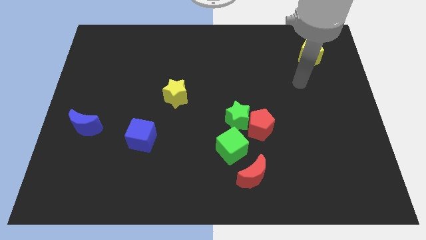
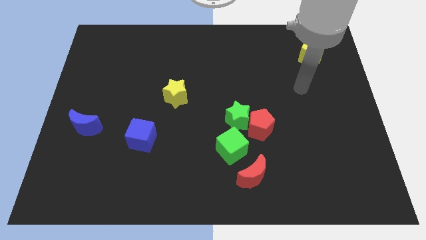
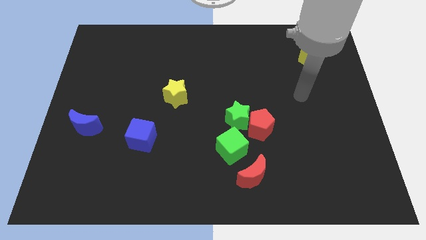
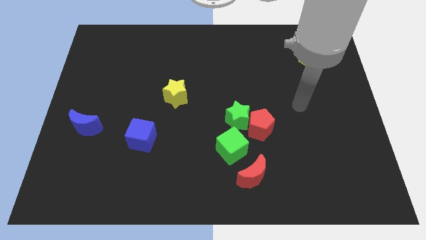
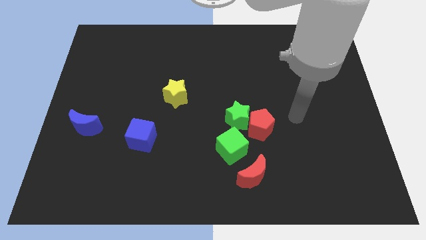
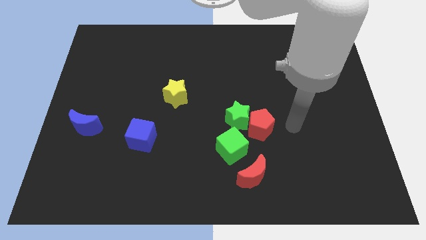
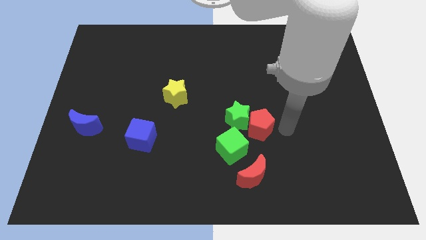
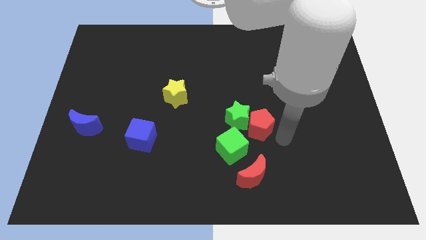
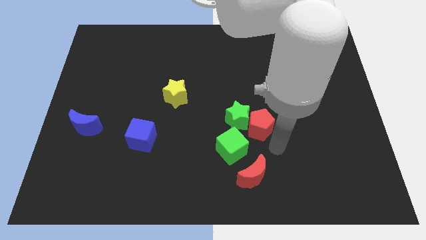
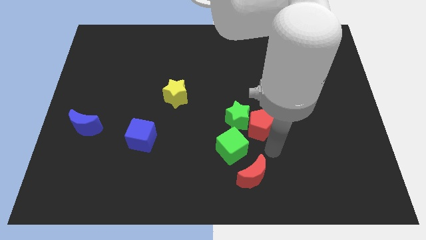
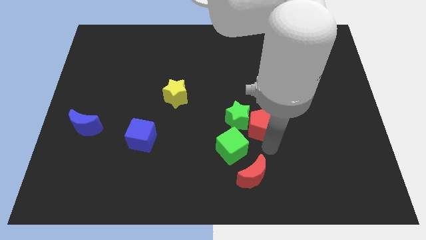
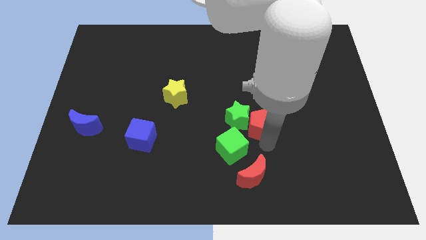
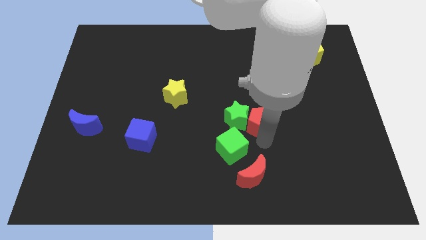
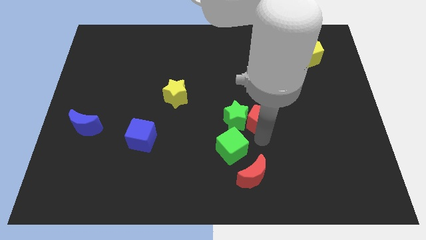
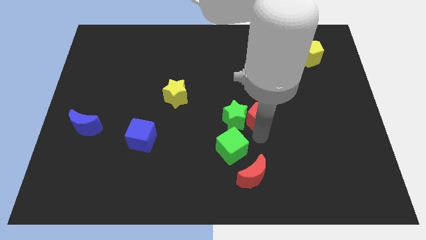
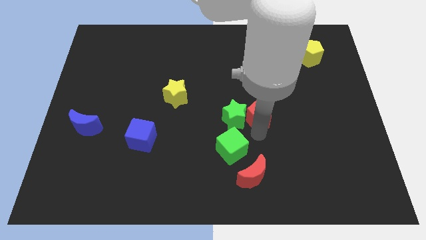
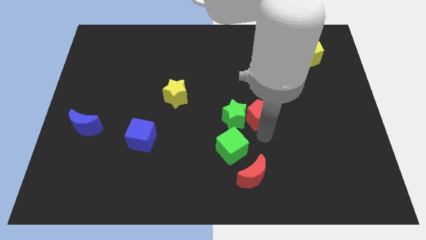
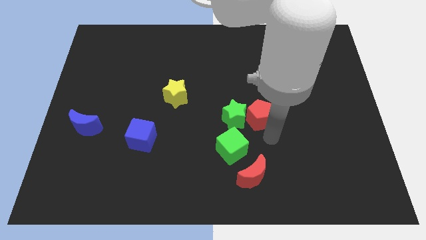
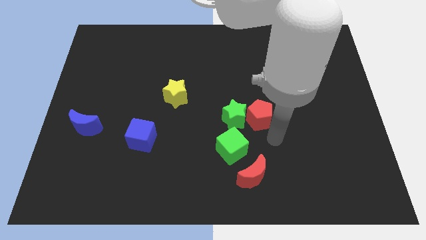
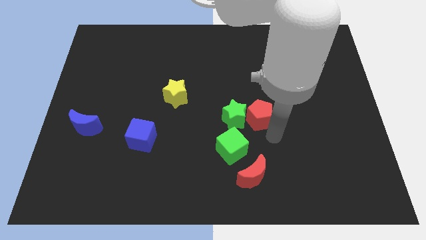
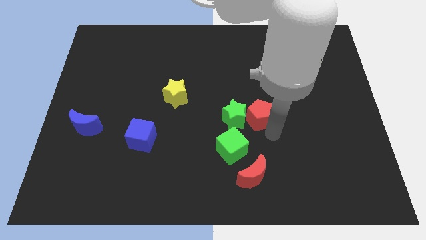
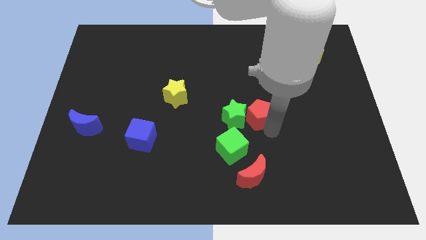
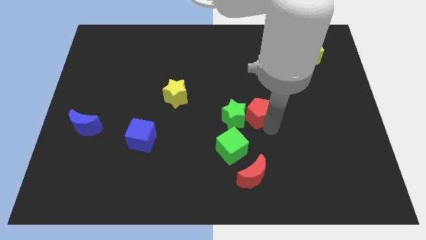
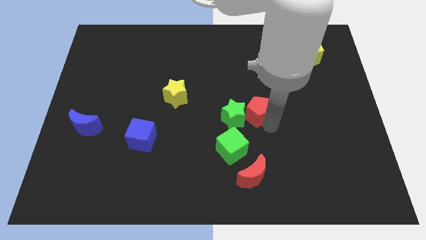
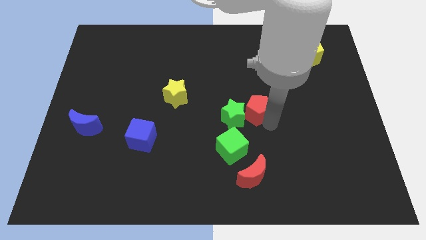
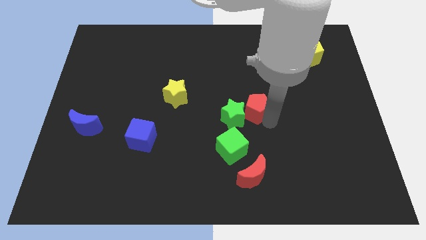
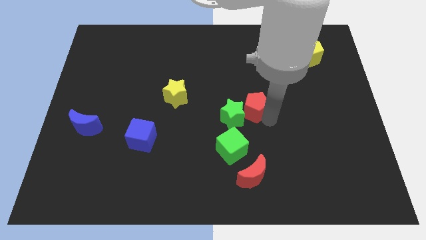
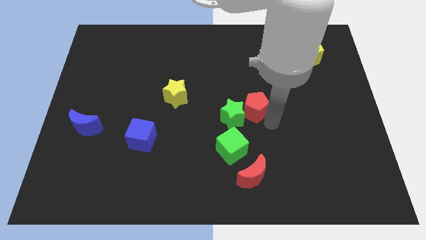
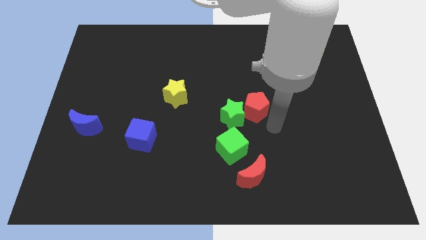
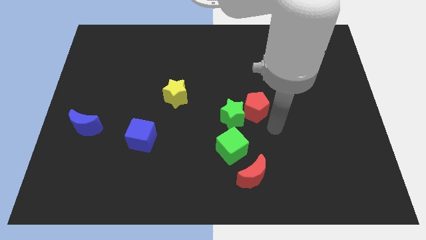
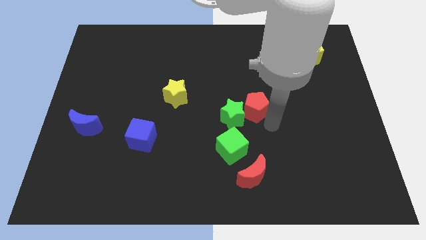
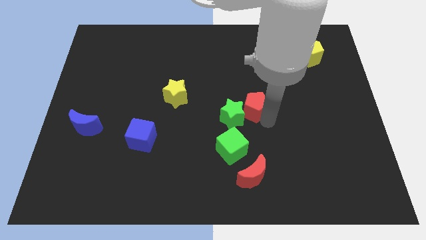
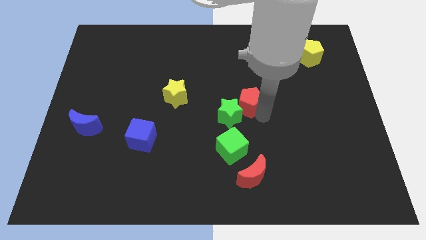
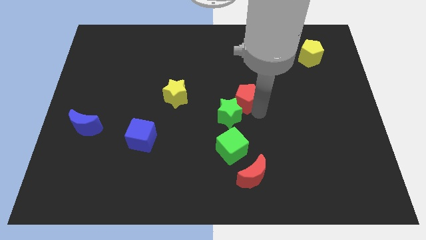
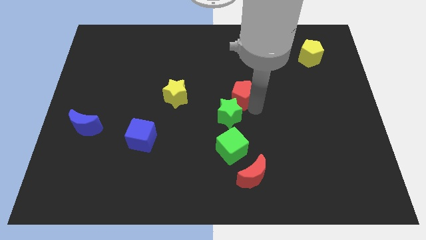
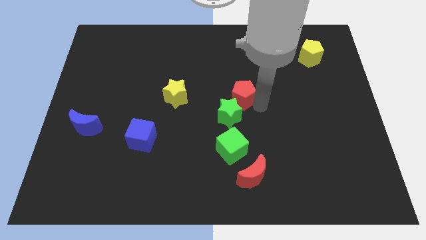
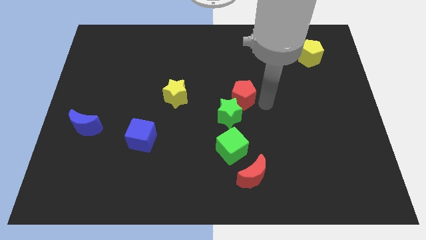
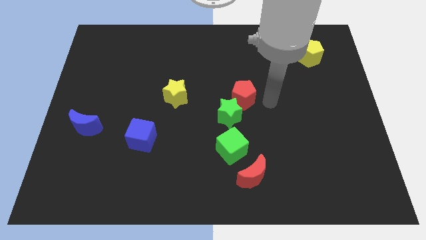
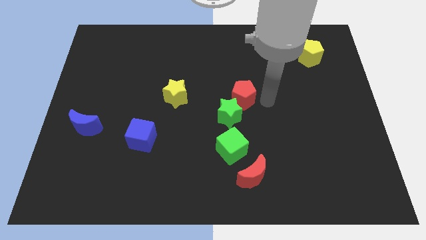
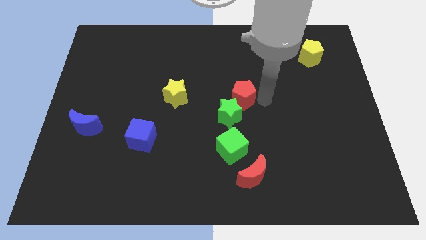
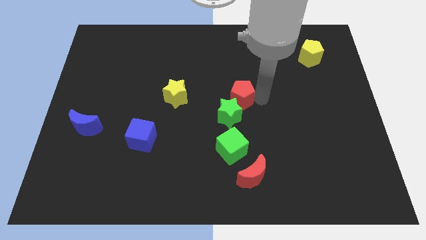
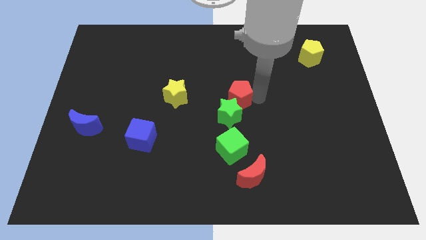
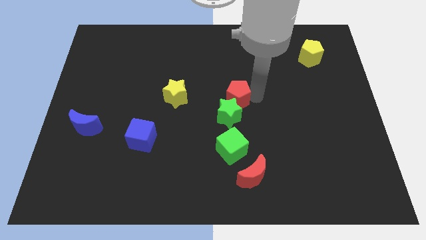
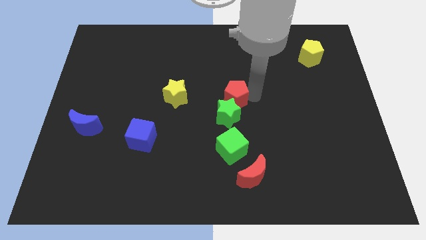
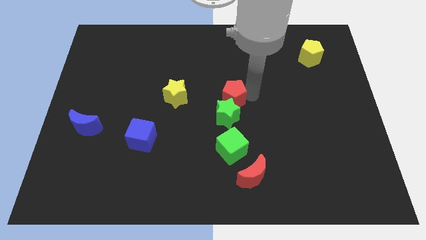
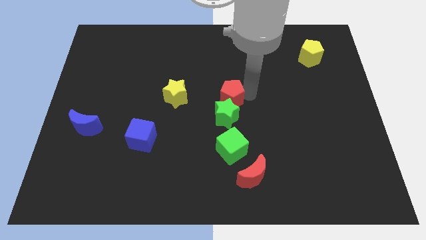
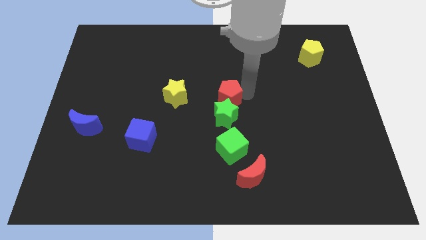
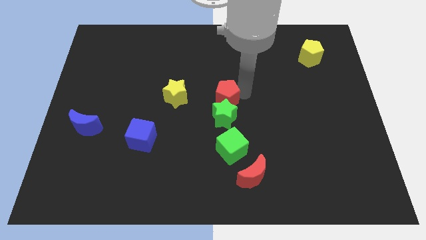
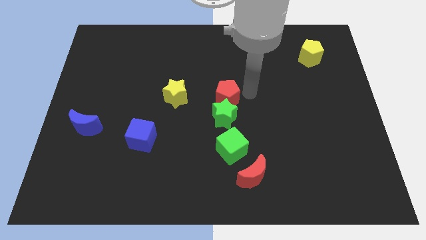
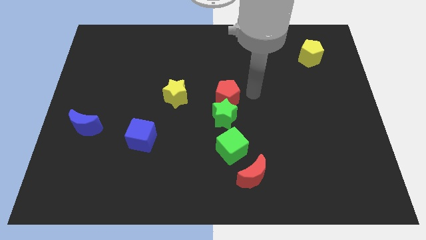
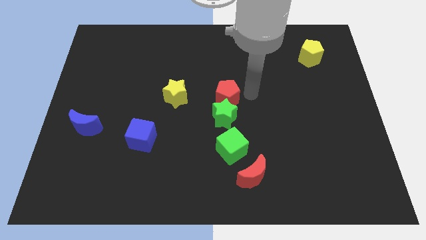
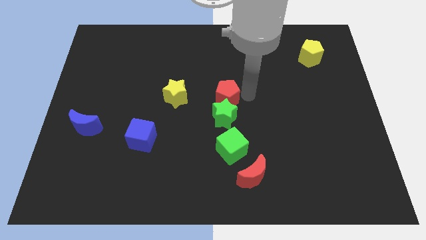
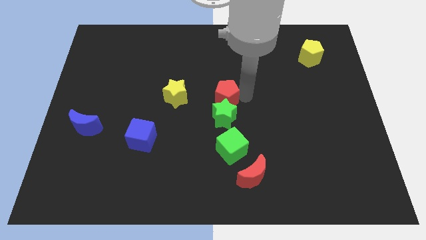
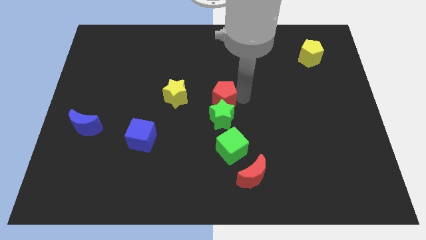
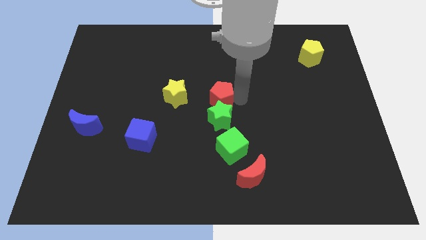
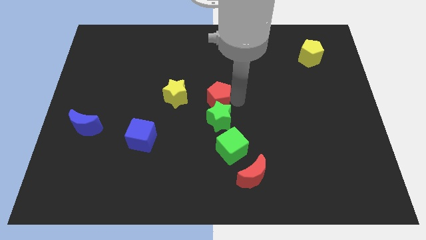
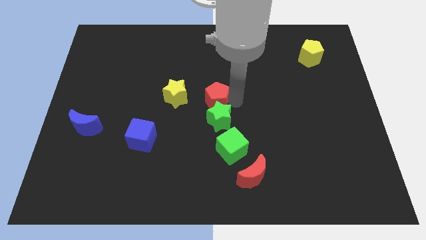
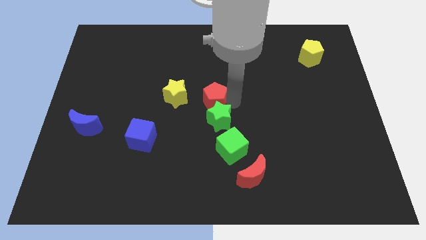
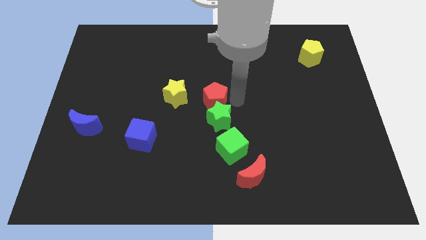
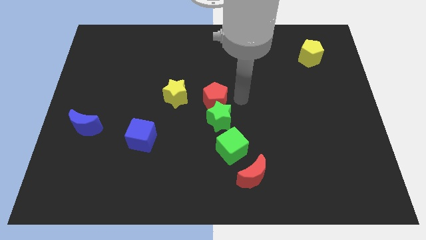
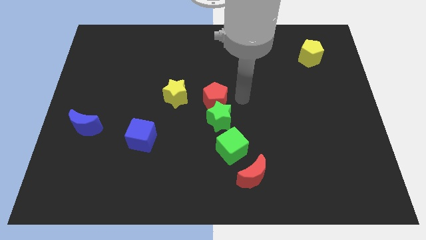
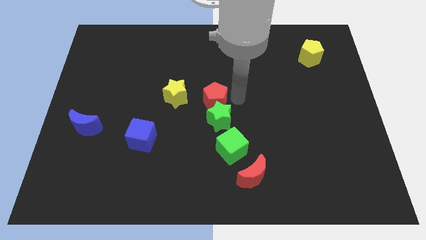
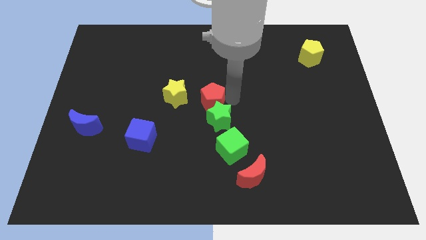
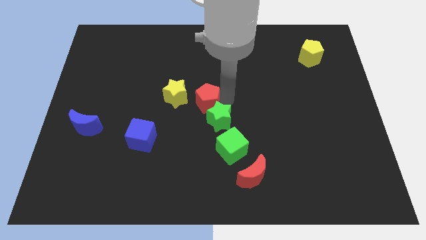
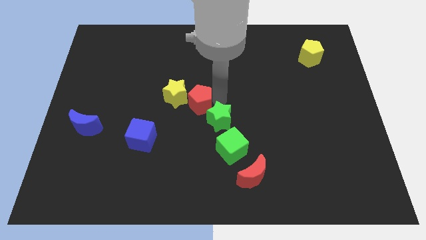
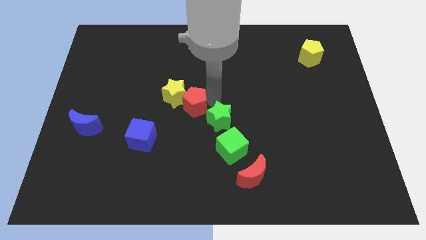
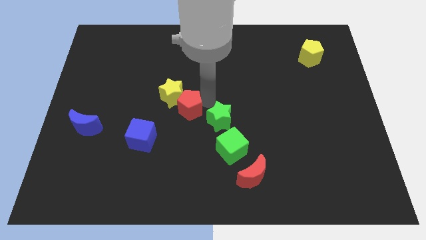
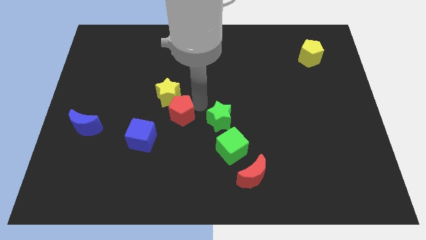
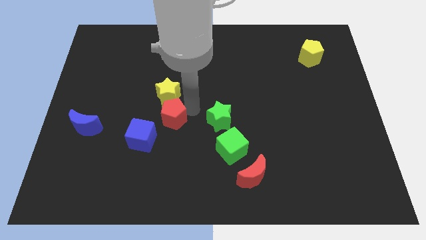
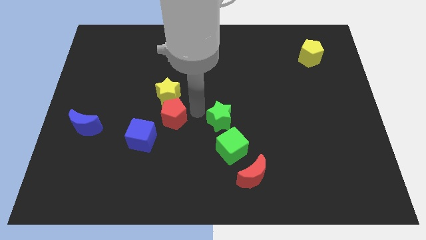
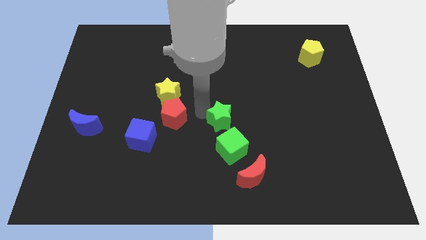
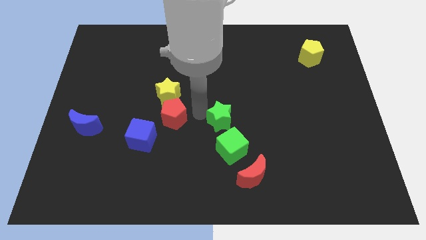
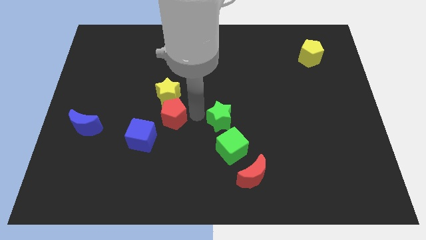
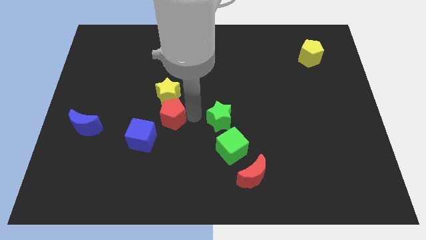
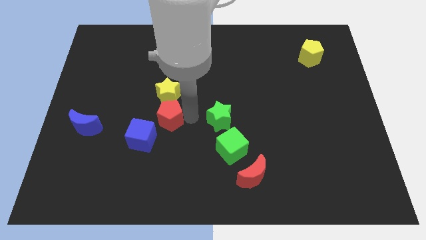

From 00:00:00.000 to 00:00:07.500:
push the red pentagon left

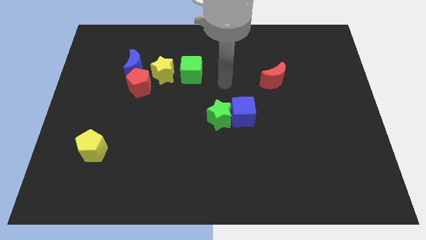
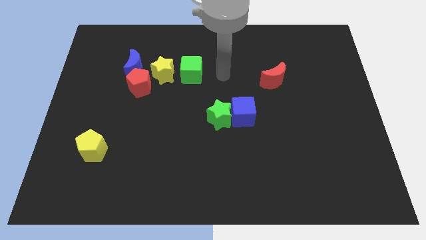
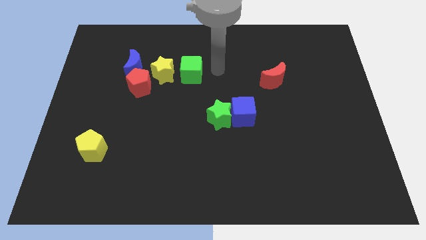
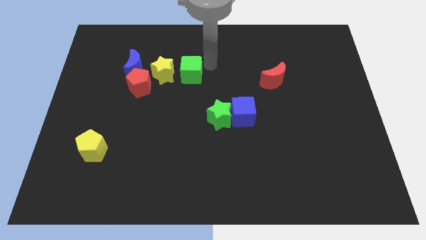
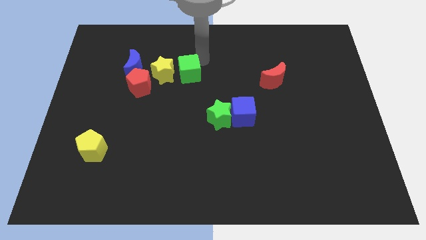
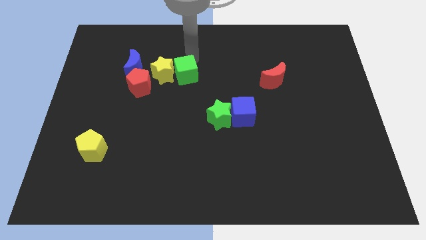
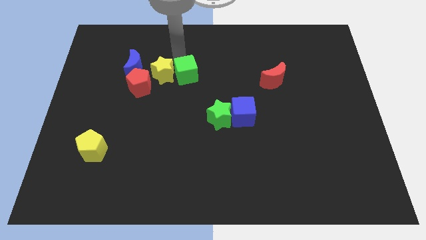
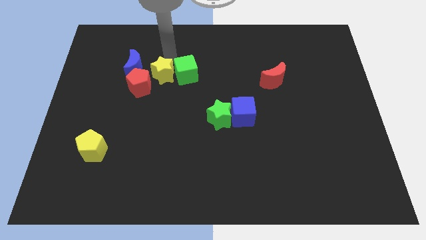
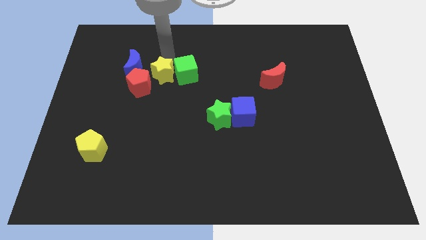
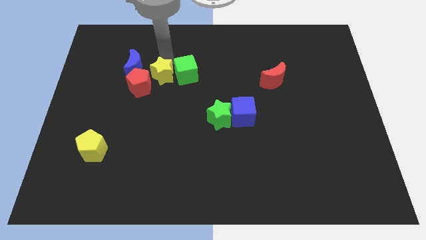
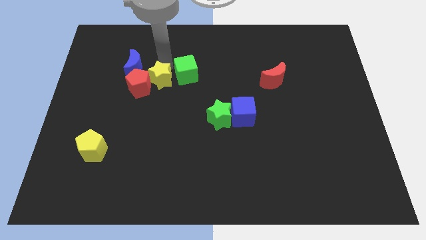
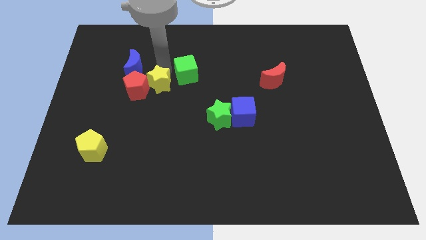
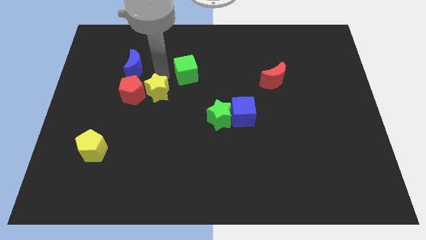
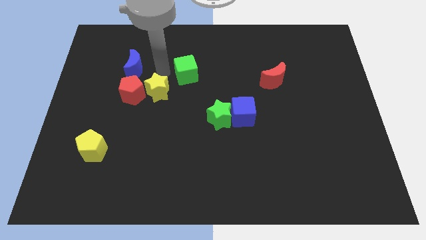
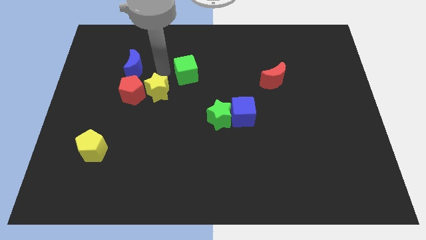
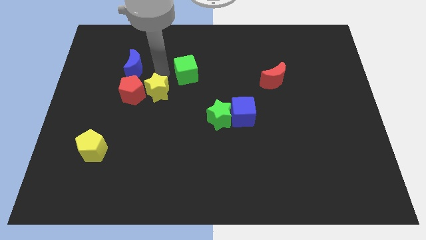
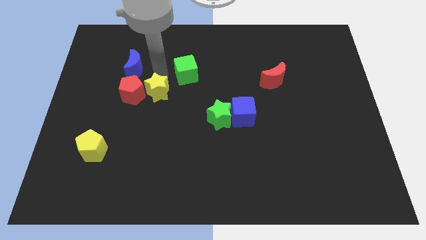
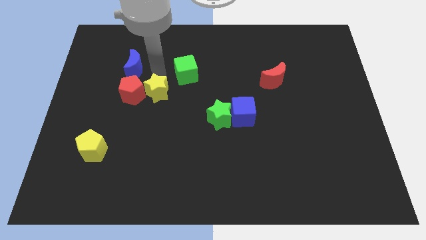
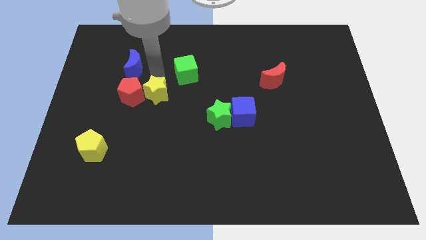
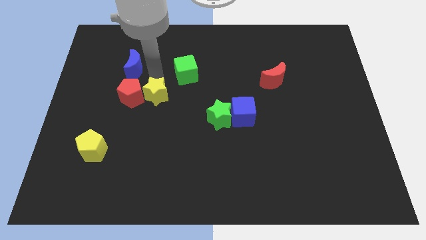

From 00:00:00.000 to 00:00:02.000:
slightly slide the yellow star downwards
